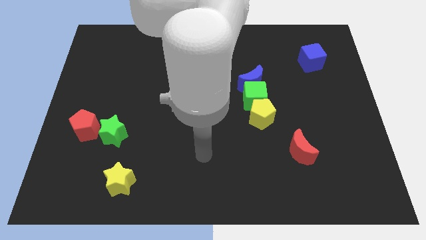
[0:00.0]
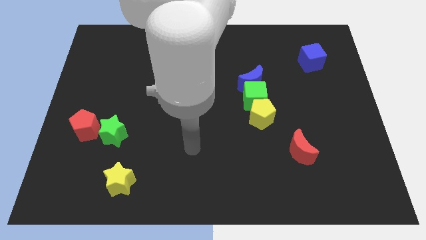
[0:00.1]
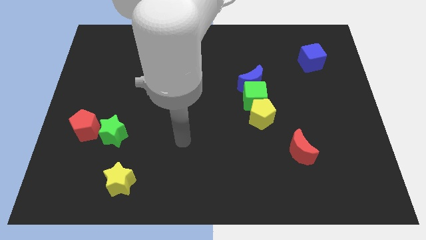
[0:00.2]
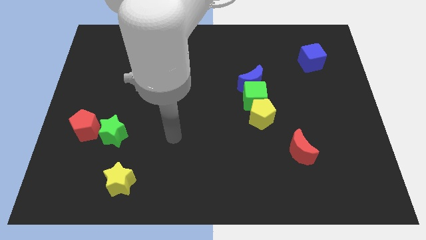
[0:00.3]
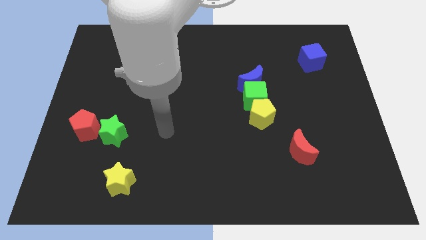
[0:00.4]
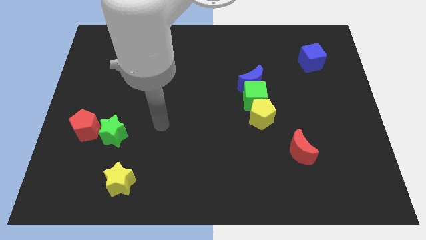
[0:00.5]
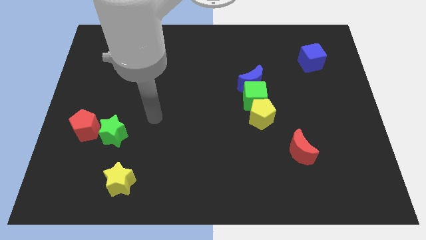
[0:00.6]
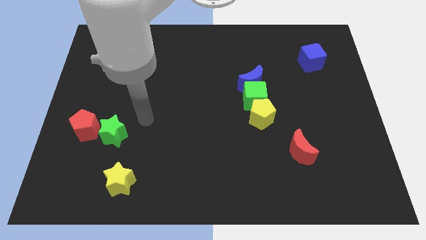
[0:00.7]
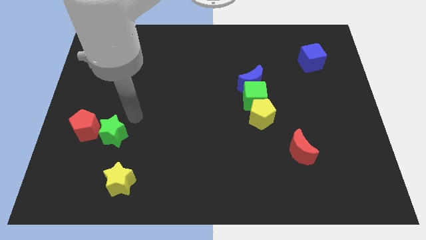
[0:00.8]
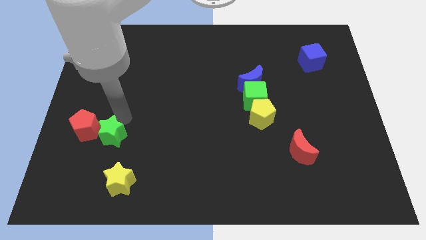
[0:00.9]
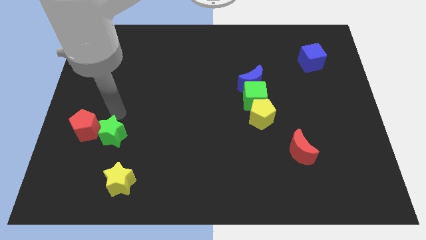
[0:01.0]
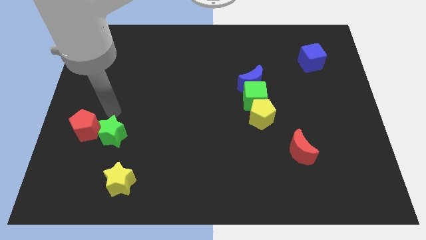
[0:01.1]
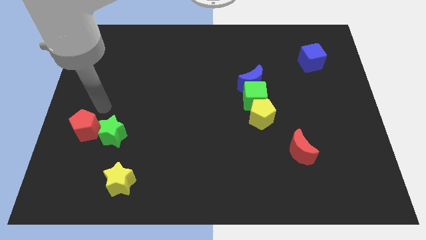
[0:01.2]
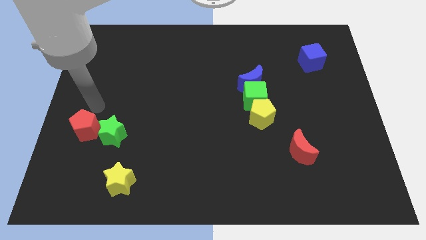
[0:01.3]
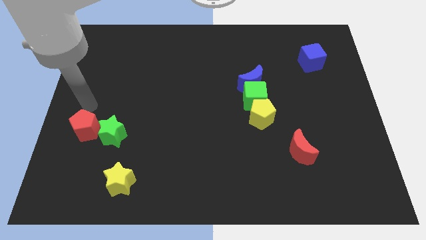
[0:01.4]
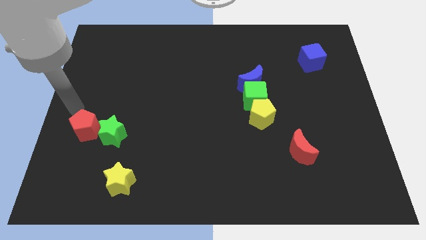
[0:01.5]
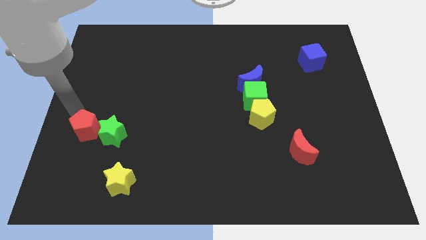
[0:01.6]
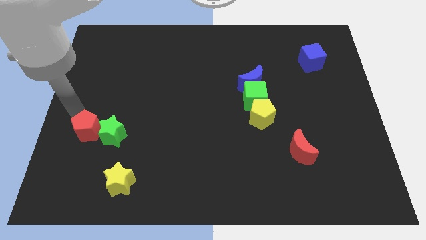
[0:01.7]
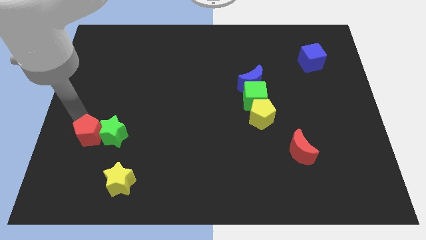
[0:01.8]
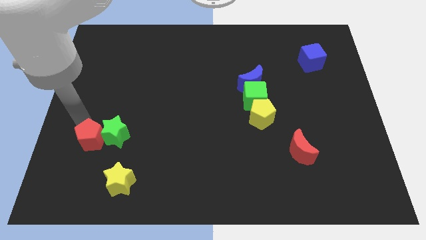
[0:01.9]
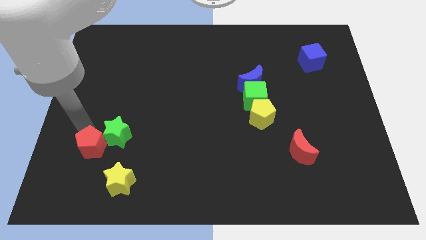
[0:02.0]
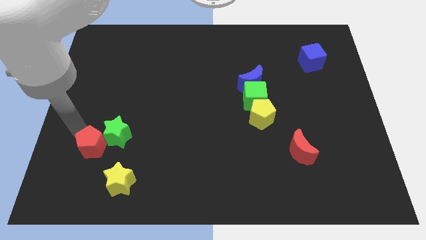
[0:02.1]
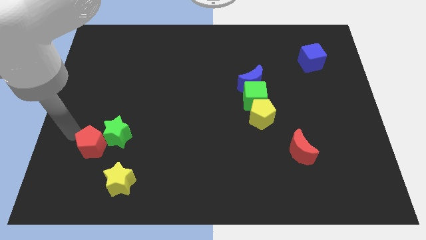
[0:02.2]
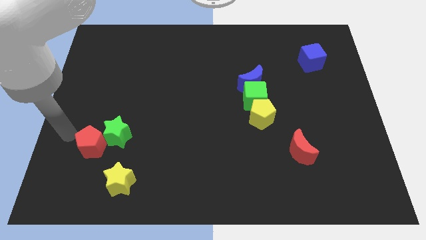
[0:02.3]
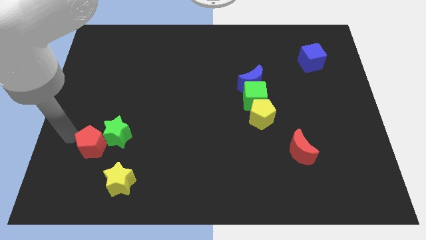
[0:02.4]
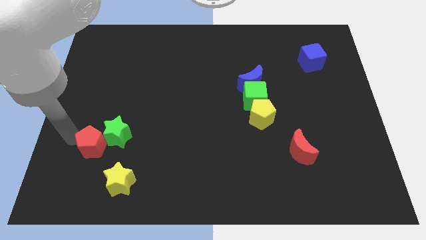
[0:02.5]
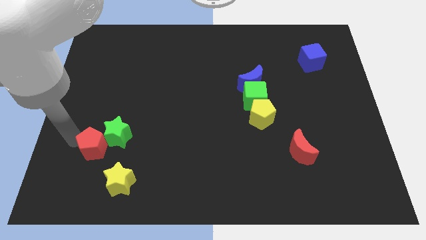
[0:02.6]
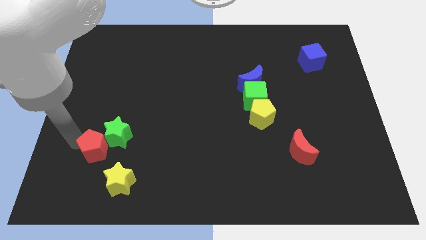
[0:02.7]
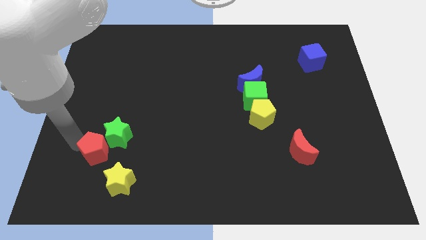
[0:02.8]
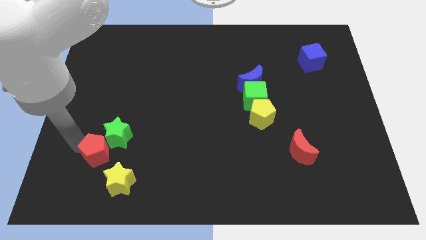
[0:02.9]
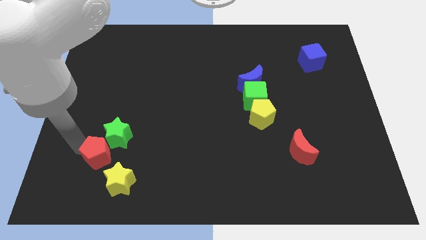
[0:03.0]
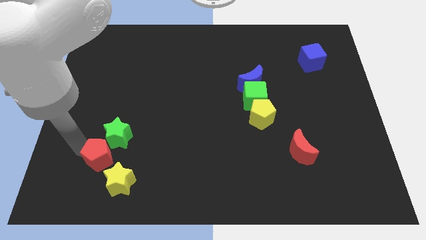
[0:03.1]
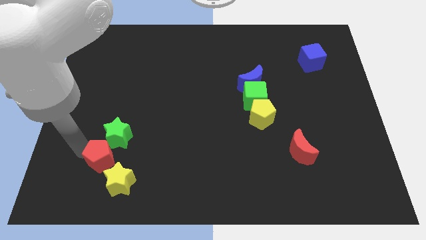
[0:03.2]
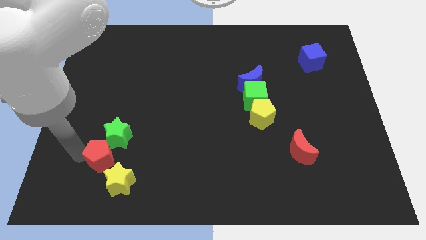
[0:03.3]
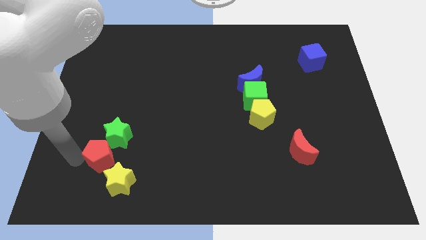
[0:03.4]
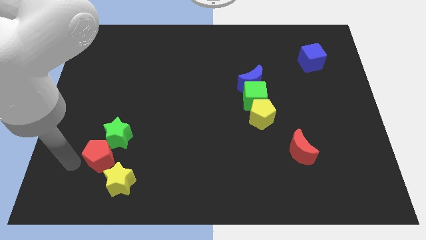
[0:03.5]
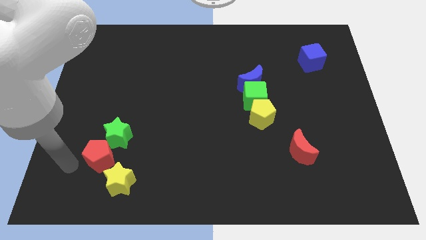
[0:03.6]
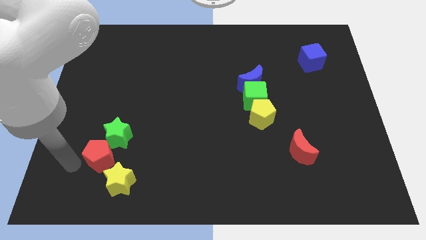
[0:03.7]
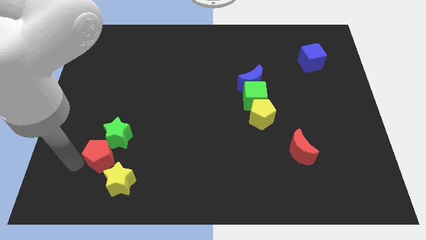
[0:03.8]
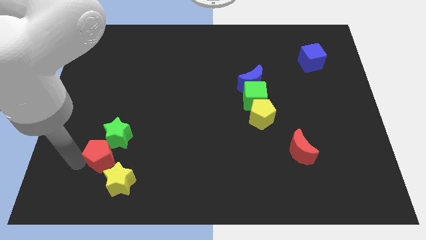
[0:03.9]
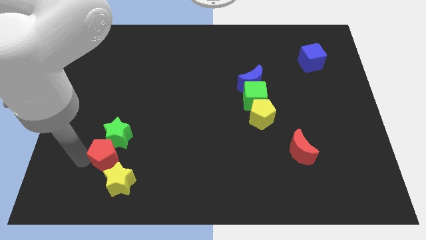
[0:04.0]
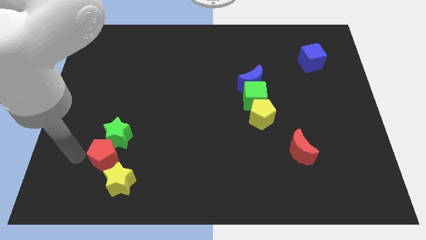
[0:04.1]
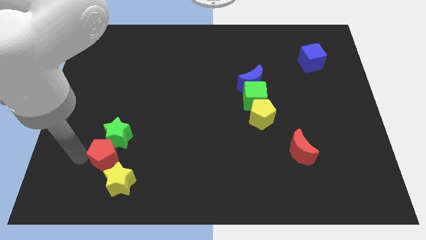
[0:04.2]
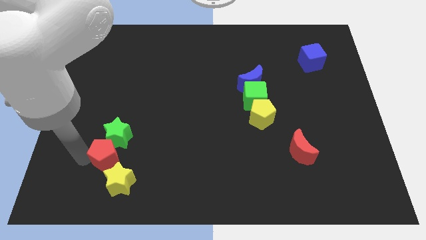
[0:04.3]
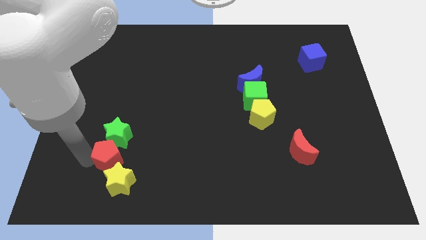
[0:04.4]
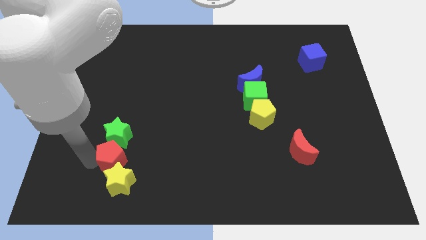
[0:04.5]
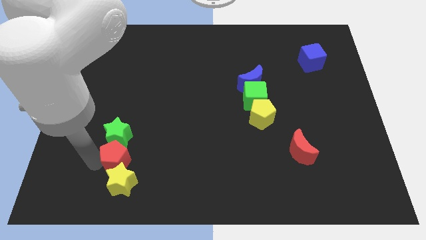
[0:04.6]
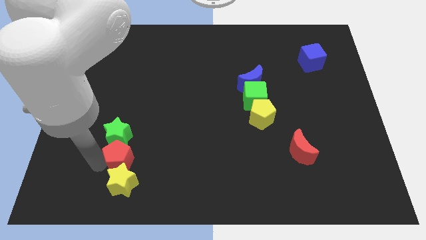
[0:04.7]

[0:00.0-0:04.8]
push the red pentagon to the top right of the yellow star

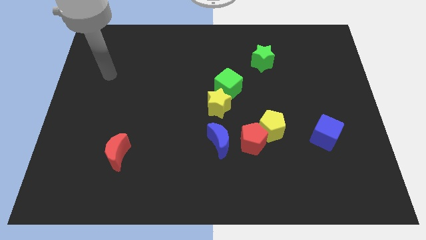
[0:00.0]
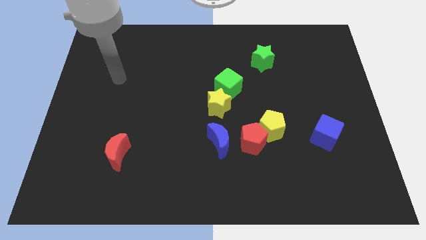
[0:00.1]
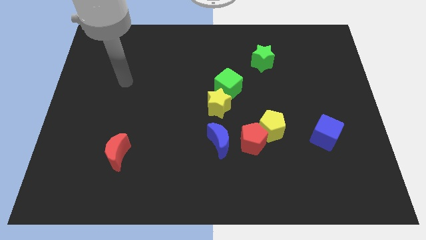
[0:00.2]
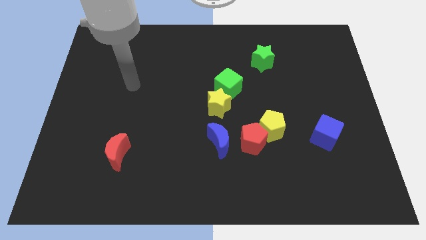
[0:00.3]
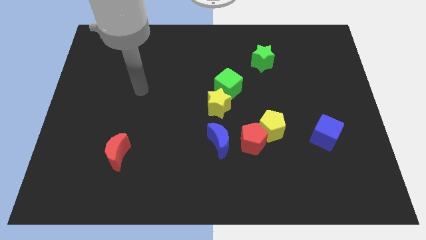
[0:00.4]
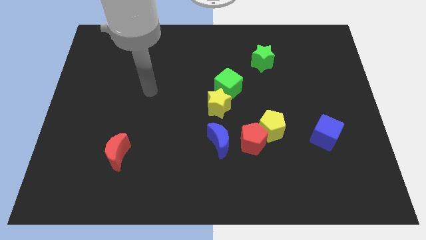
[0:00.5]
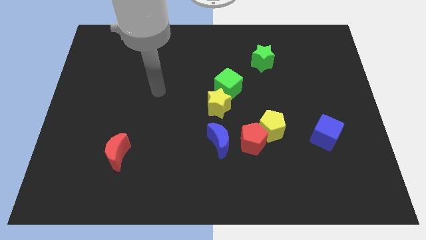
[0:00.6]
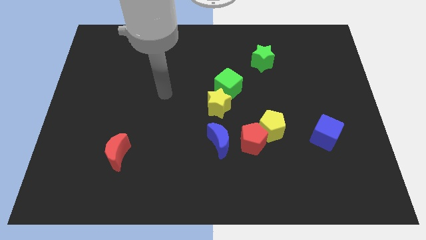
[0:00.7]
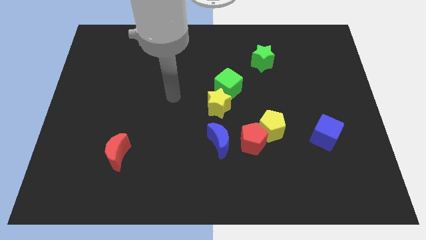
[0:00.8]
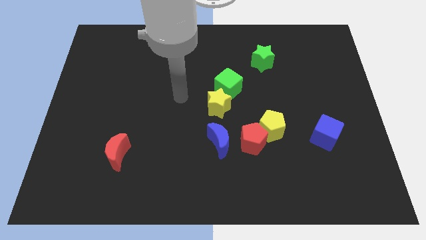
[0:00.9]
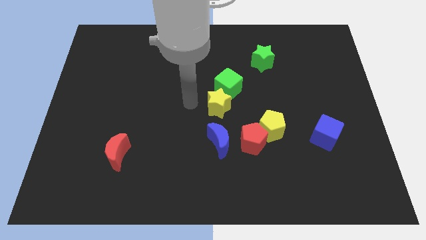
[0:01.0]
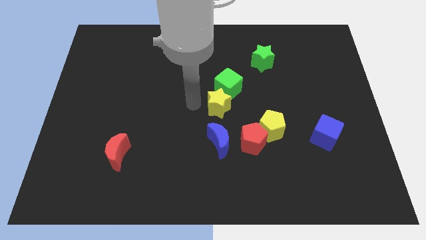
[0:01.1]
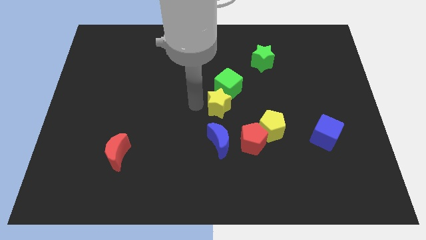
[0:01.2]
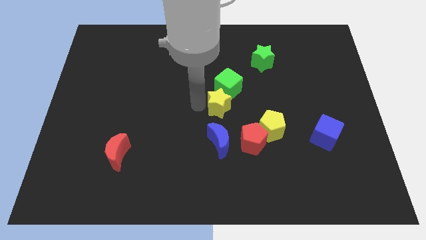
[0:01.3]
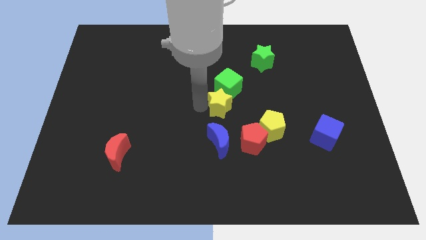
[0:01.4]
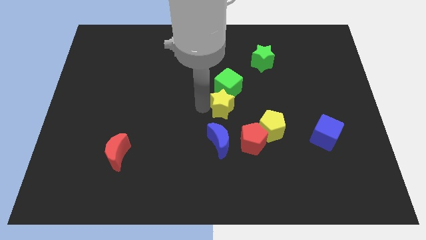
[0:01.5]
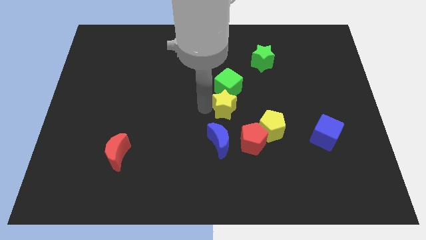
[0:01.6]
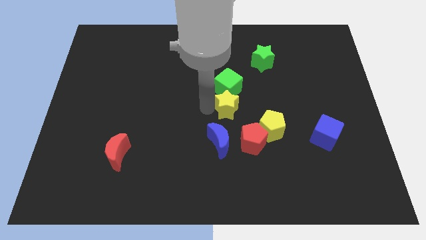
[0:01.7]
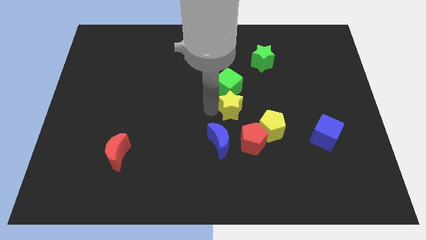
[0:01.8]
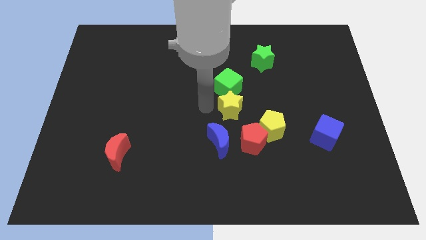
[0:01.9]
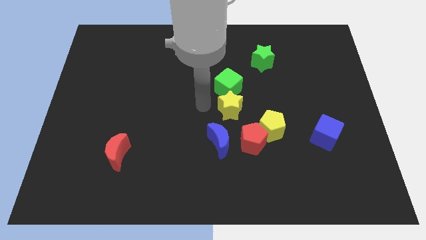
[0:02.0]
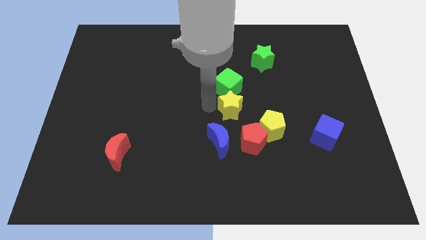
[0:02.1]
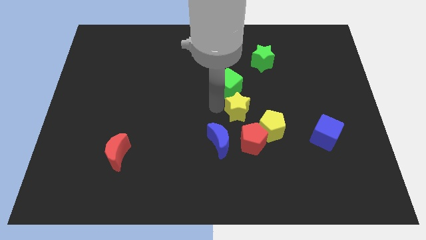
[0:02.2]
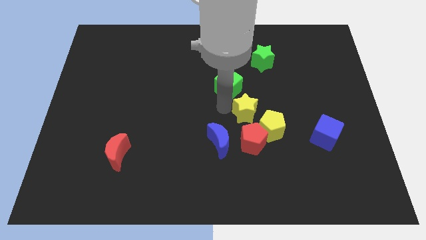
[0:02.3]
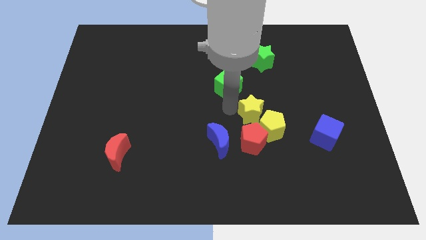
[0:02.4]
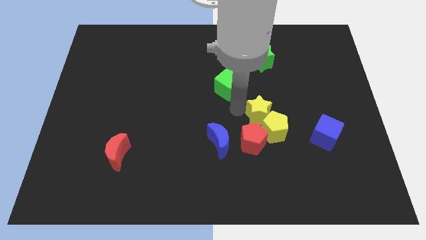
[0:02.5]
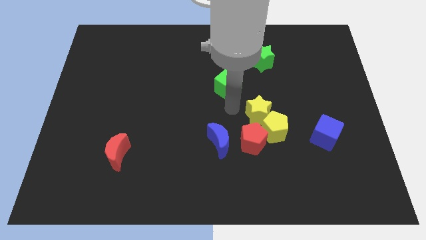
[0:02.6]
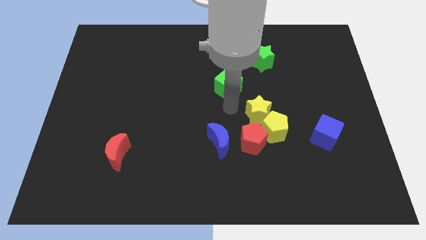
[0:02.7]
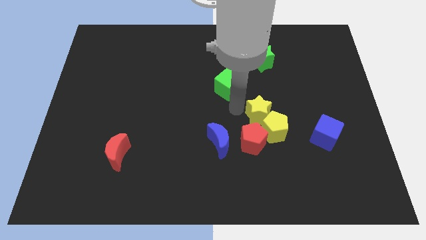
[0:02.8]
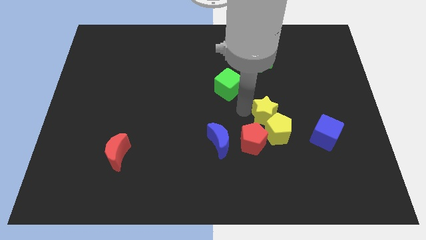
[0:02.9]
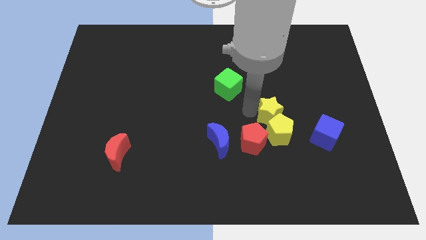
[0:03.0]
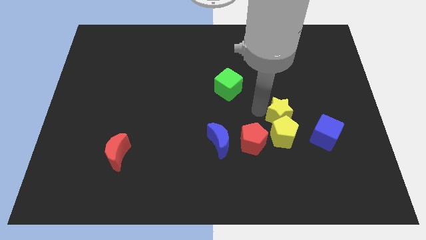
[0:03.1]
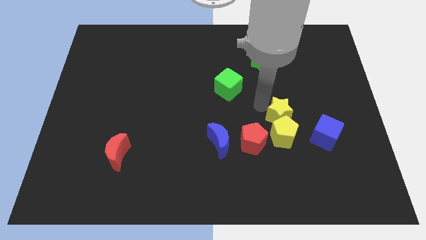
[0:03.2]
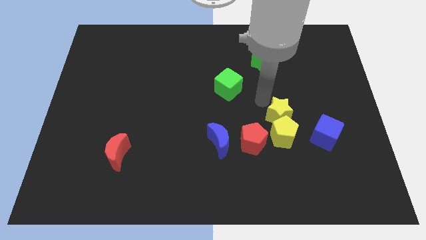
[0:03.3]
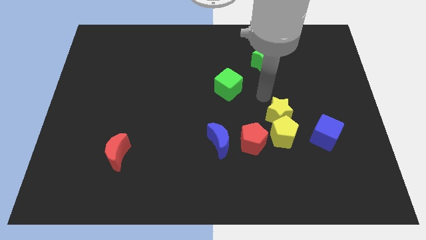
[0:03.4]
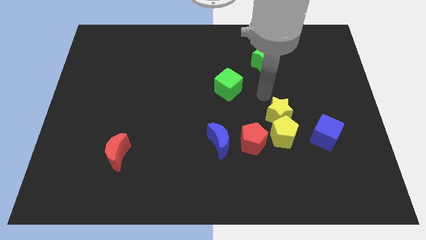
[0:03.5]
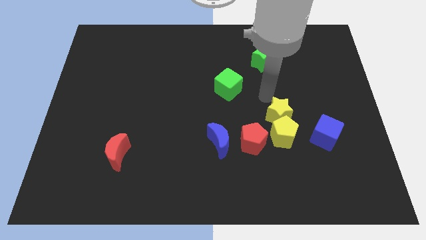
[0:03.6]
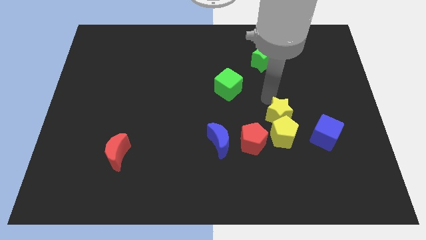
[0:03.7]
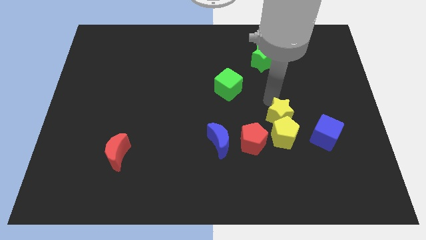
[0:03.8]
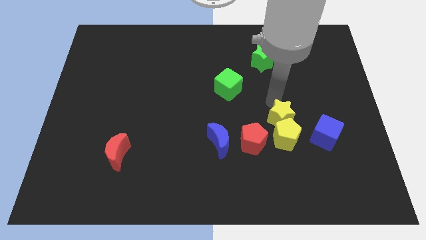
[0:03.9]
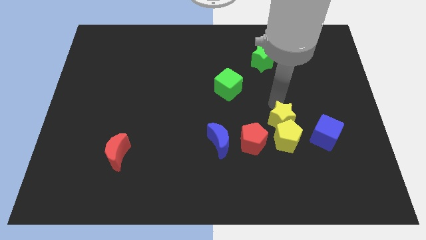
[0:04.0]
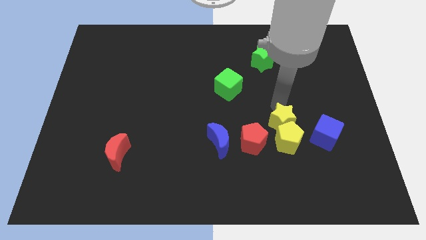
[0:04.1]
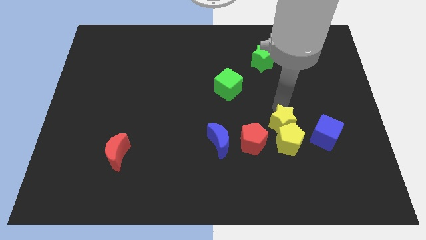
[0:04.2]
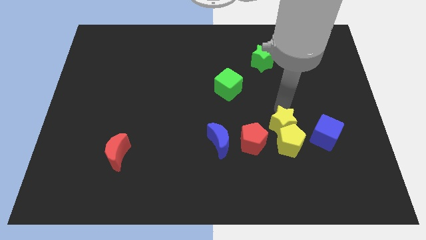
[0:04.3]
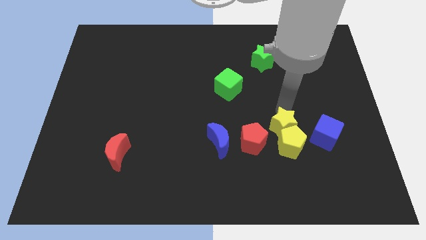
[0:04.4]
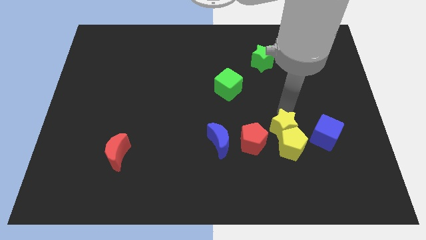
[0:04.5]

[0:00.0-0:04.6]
push the yellow star to the right of the blue moon
